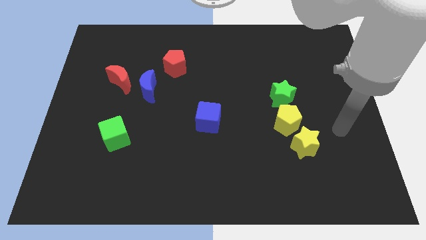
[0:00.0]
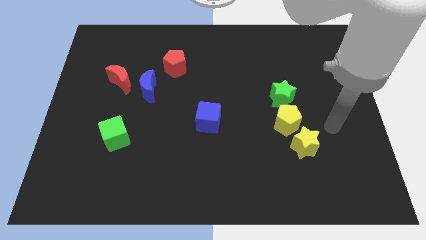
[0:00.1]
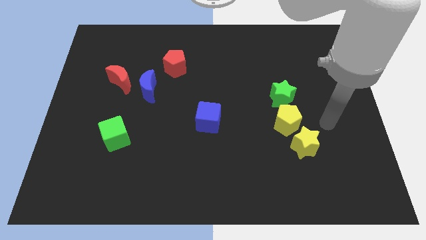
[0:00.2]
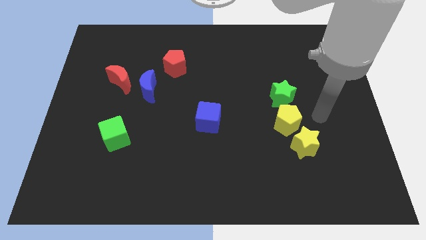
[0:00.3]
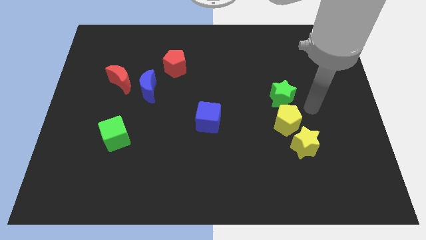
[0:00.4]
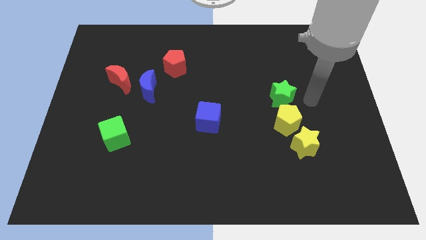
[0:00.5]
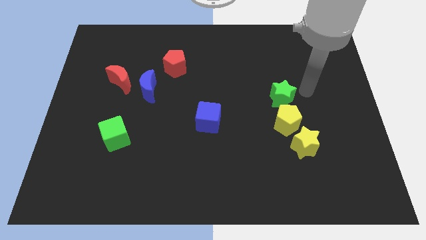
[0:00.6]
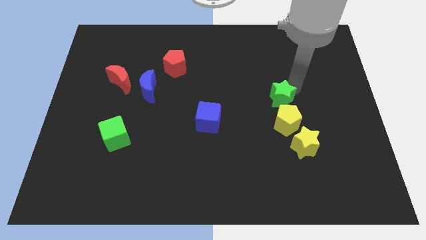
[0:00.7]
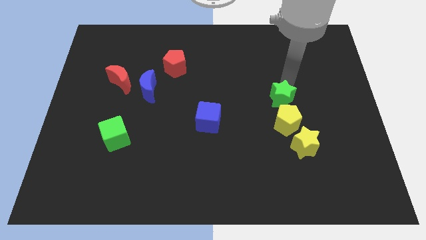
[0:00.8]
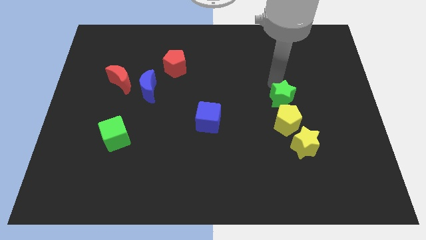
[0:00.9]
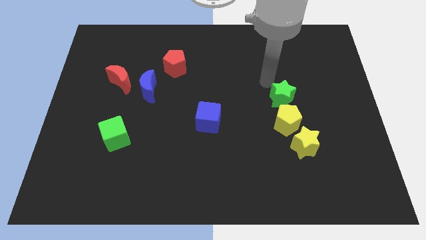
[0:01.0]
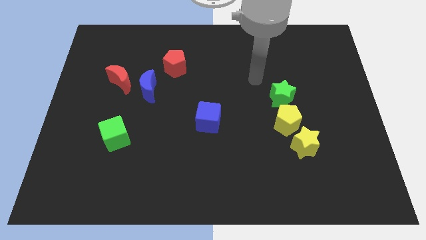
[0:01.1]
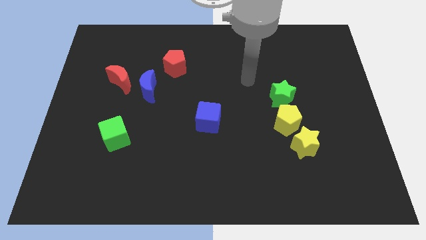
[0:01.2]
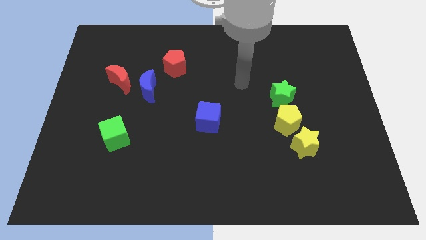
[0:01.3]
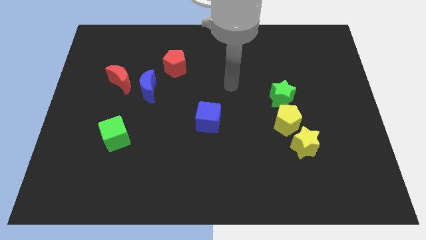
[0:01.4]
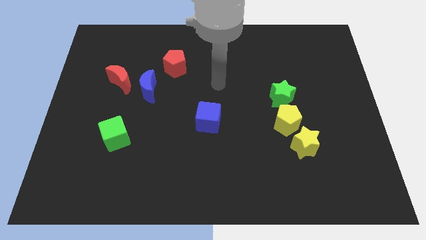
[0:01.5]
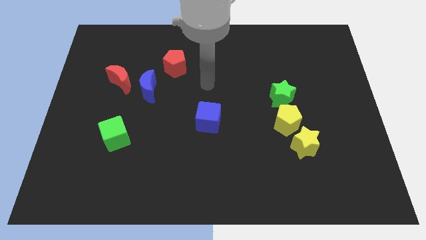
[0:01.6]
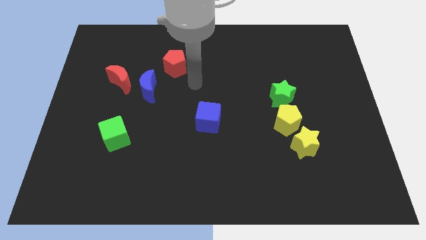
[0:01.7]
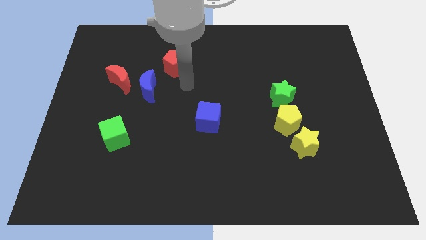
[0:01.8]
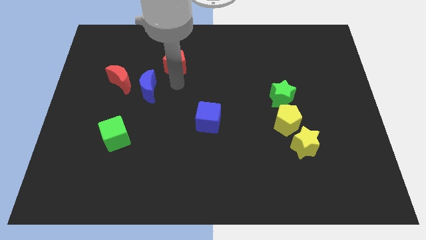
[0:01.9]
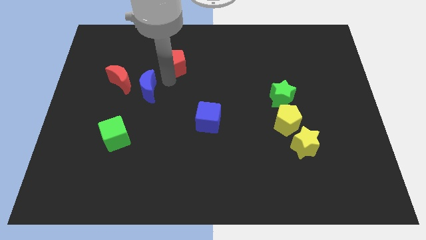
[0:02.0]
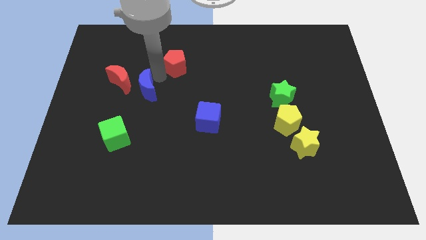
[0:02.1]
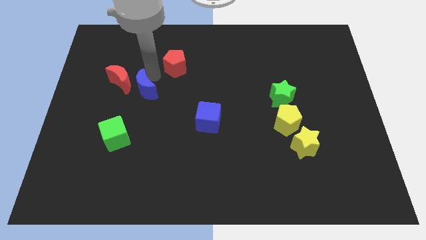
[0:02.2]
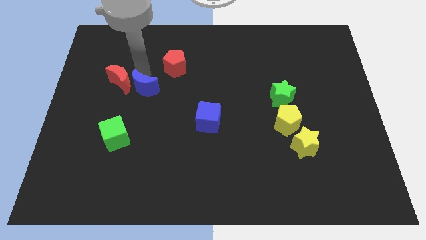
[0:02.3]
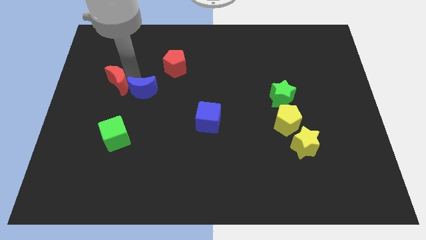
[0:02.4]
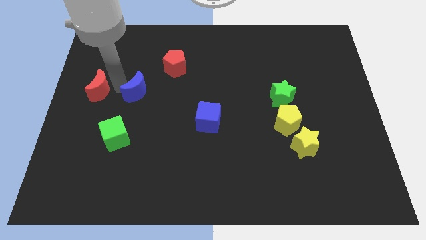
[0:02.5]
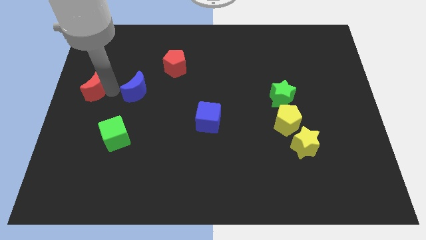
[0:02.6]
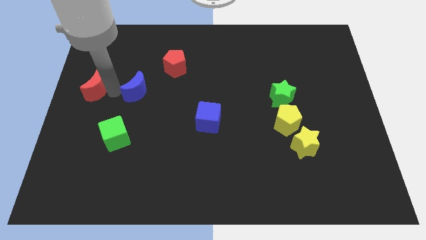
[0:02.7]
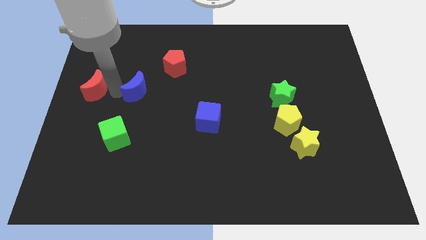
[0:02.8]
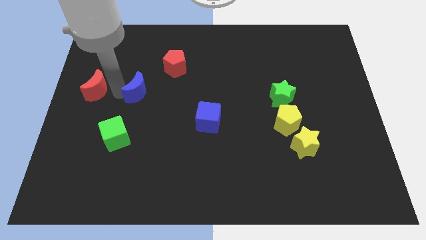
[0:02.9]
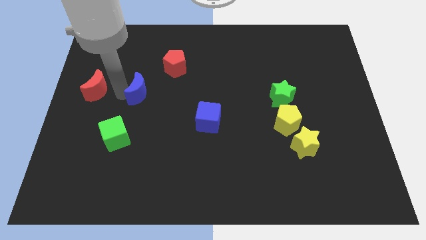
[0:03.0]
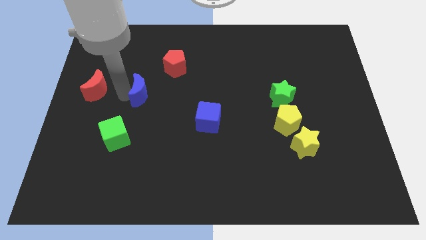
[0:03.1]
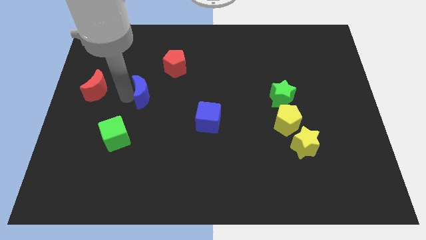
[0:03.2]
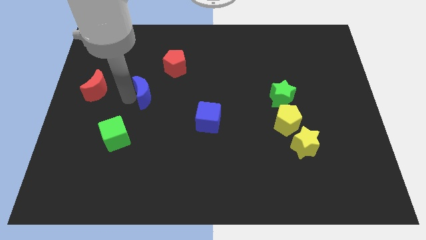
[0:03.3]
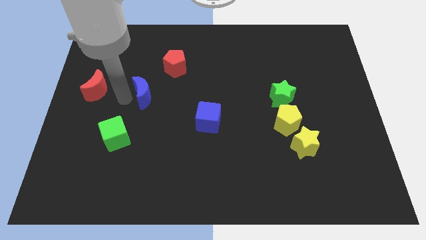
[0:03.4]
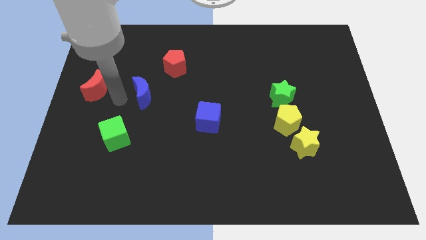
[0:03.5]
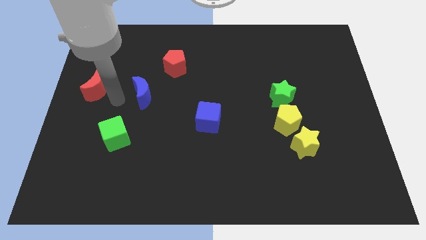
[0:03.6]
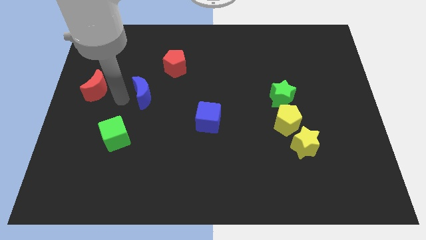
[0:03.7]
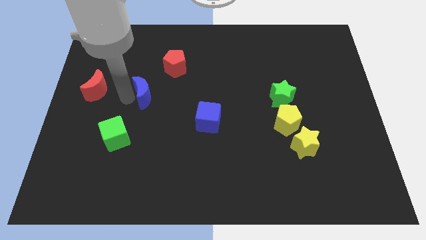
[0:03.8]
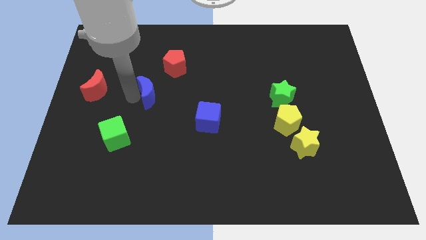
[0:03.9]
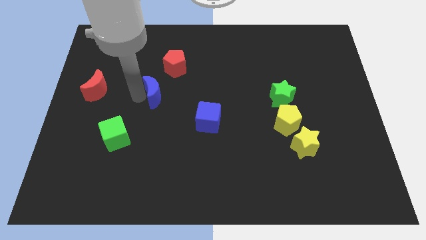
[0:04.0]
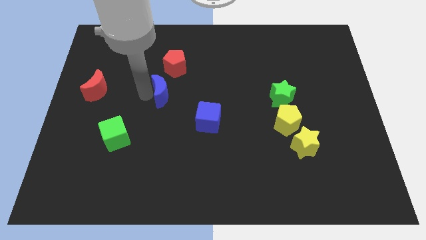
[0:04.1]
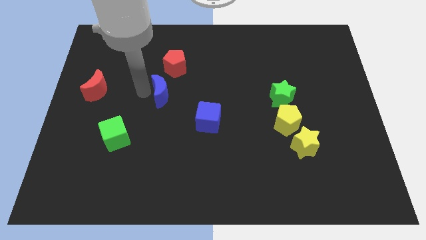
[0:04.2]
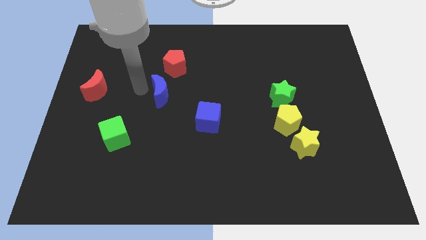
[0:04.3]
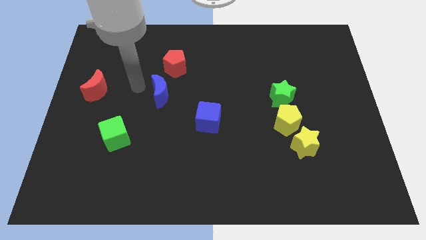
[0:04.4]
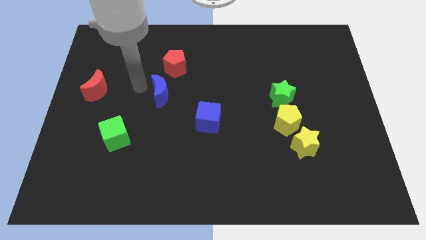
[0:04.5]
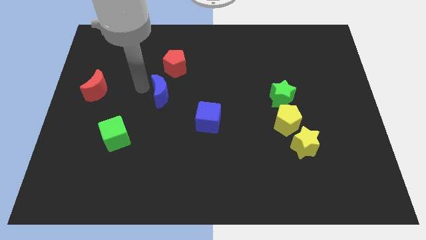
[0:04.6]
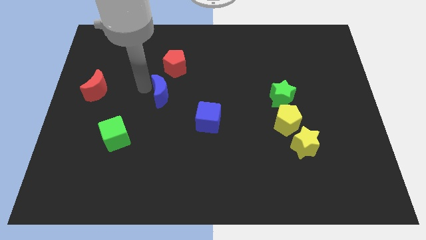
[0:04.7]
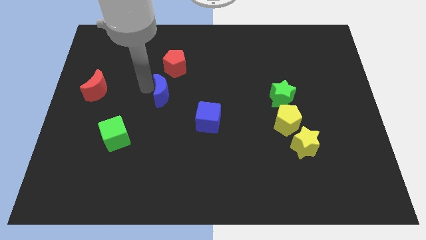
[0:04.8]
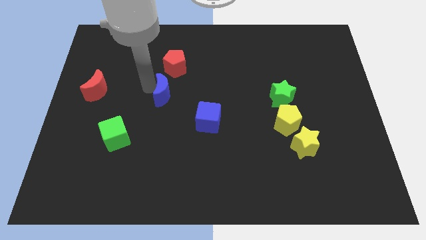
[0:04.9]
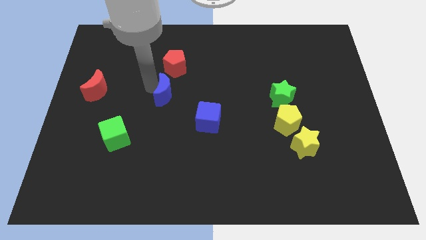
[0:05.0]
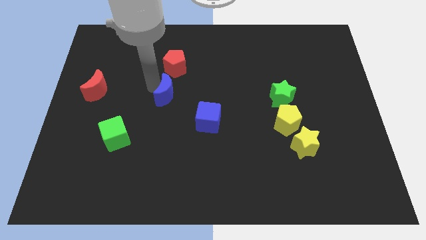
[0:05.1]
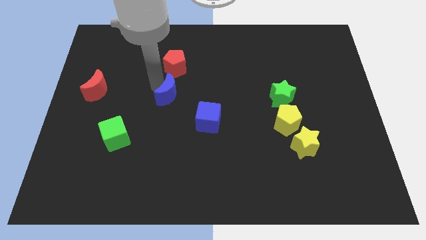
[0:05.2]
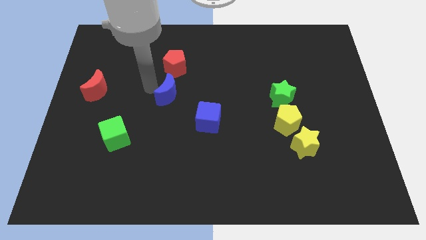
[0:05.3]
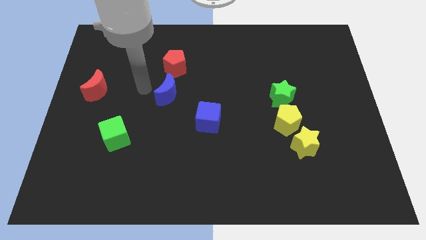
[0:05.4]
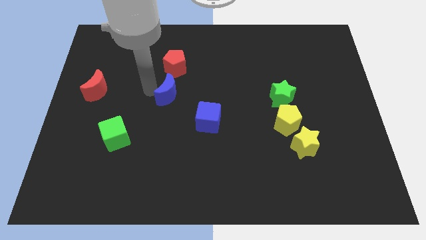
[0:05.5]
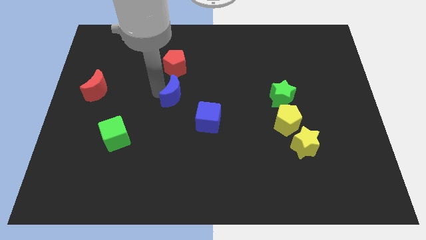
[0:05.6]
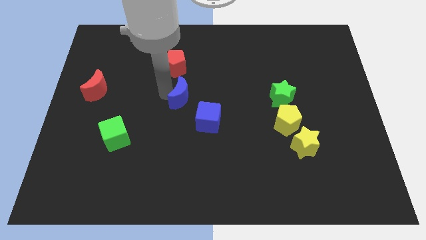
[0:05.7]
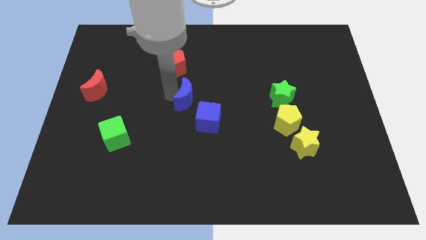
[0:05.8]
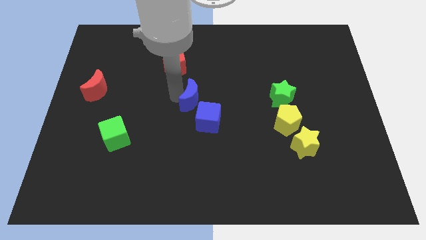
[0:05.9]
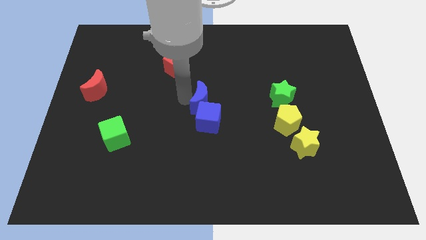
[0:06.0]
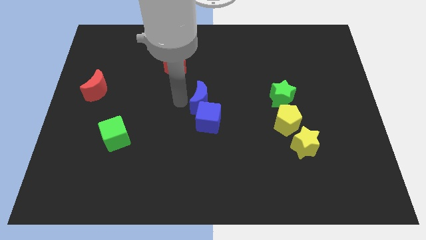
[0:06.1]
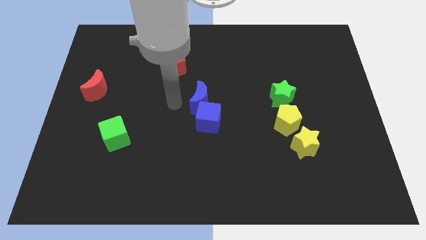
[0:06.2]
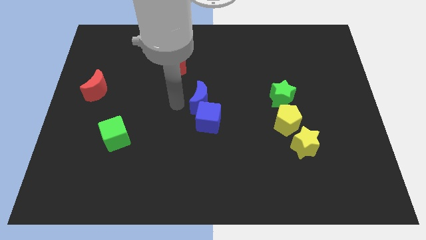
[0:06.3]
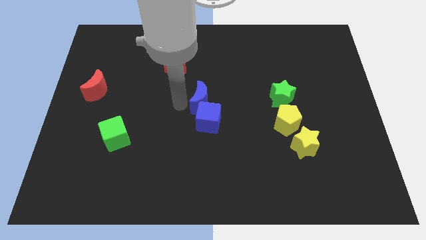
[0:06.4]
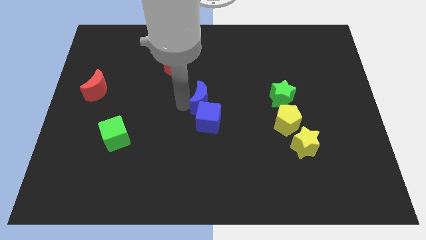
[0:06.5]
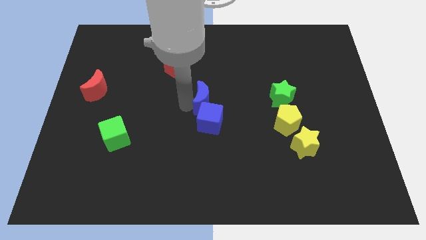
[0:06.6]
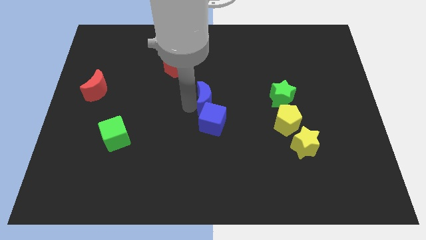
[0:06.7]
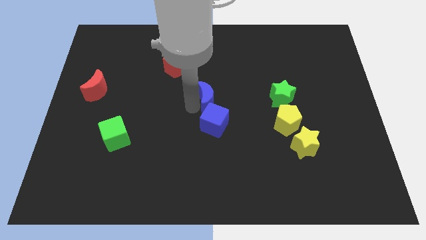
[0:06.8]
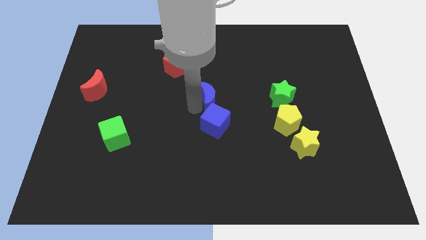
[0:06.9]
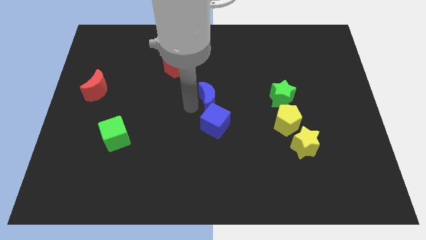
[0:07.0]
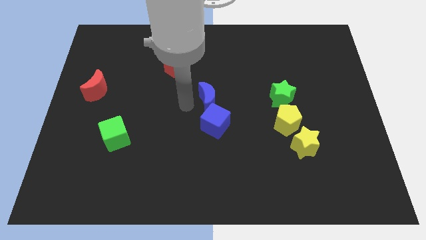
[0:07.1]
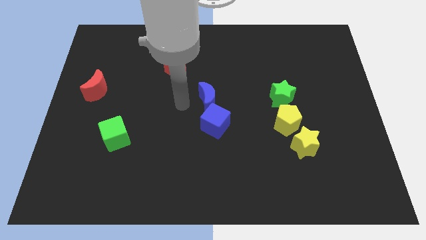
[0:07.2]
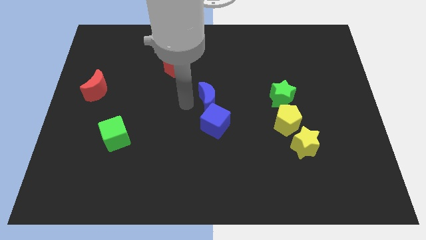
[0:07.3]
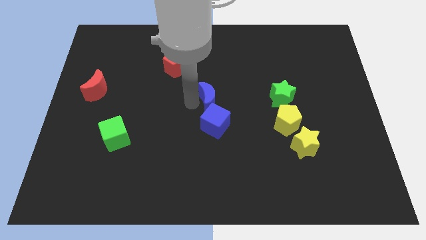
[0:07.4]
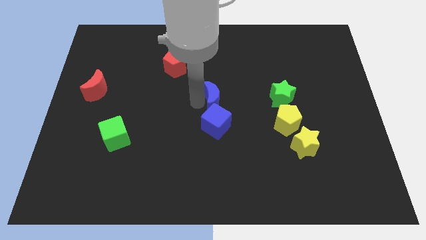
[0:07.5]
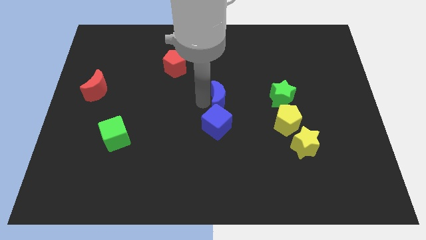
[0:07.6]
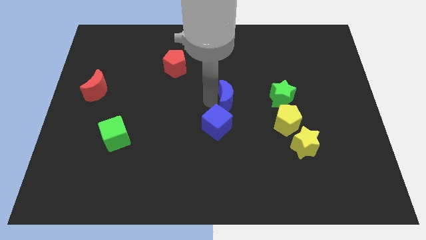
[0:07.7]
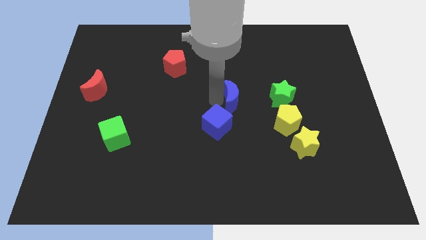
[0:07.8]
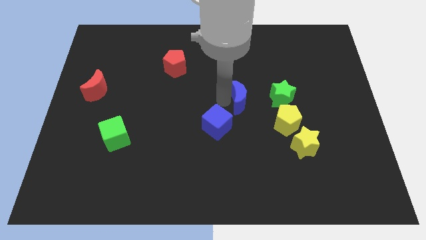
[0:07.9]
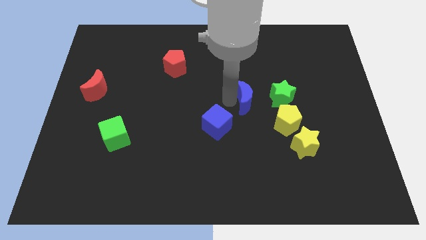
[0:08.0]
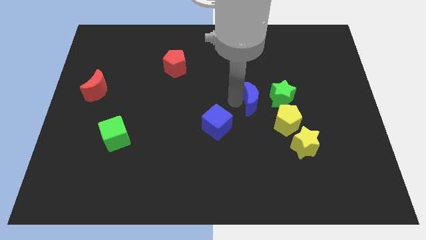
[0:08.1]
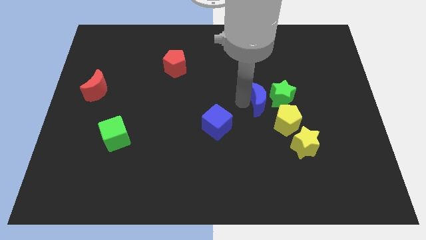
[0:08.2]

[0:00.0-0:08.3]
move the blue moon to the green star
